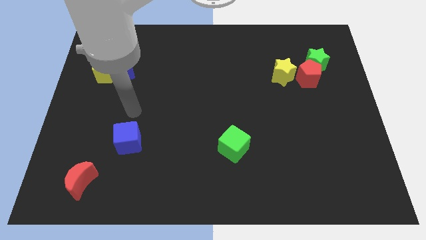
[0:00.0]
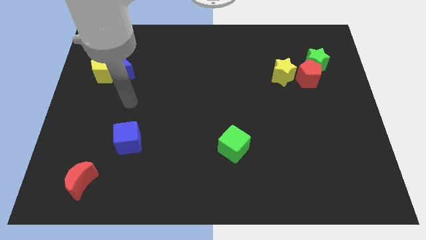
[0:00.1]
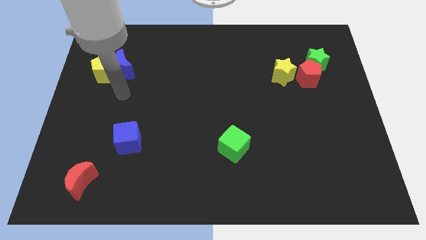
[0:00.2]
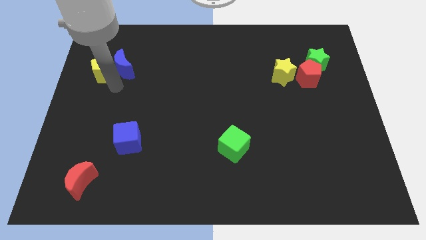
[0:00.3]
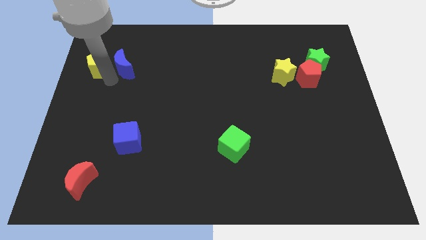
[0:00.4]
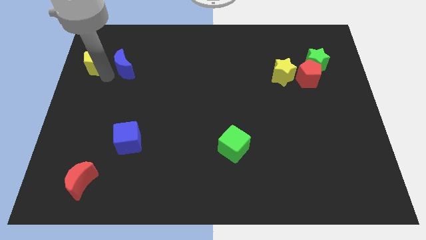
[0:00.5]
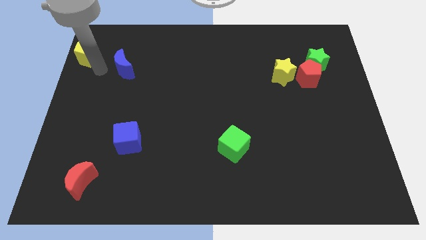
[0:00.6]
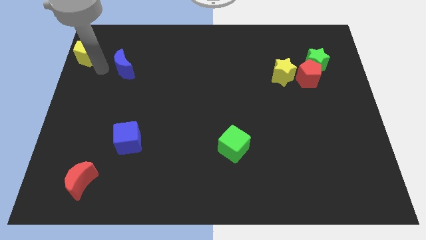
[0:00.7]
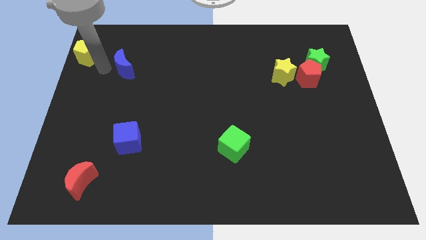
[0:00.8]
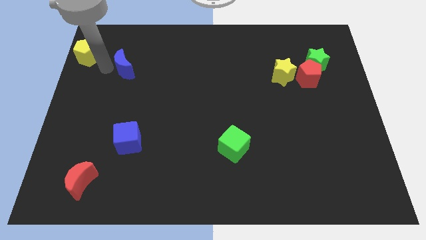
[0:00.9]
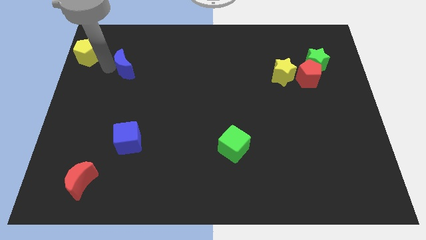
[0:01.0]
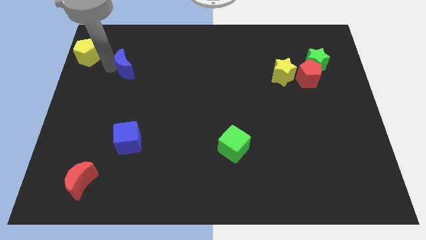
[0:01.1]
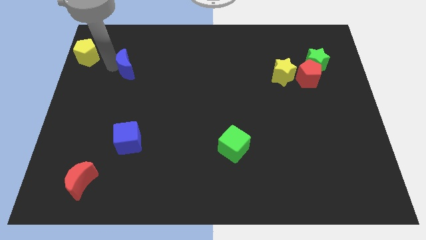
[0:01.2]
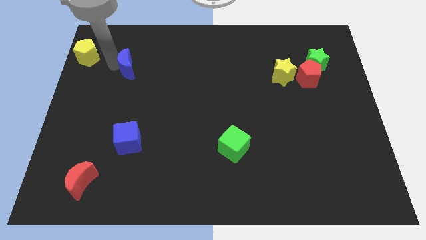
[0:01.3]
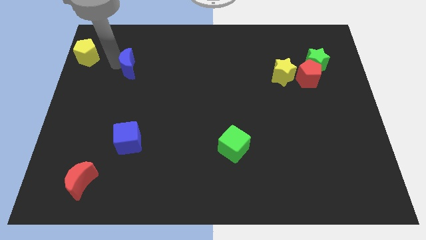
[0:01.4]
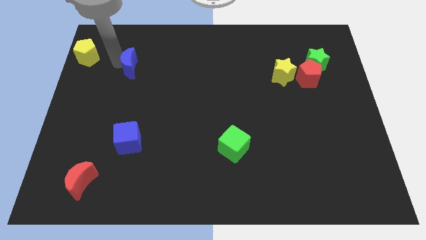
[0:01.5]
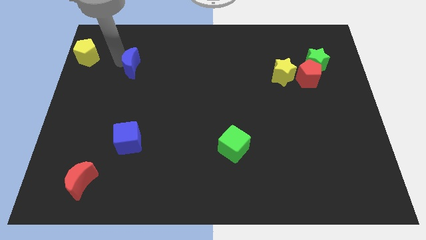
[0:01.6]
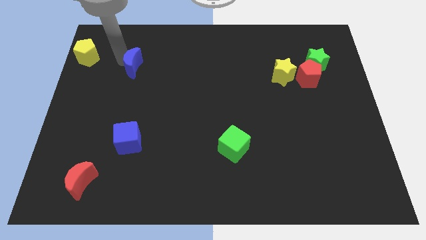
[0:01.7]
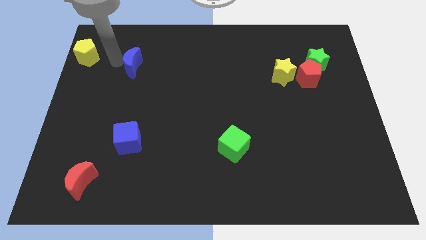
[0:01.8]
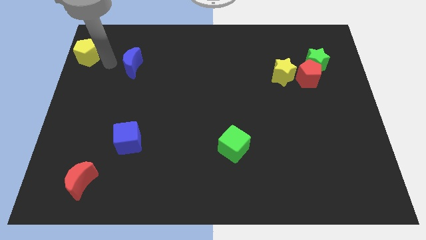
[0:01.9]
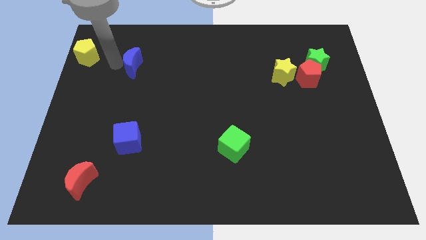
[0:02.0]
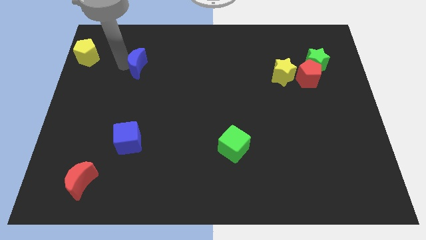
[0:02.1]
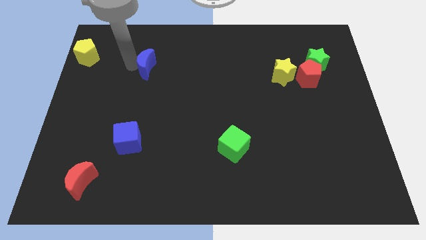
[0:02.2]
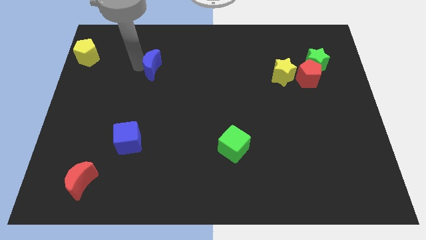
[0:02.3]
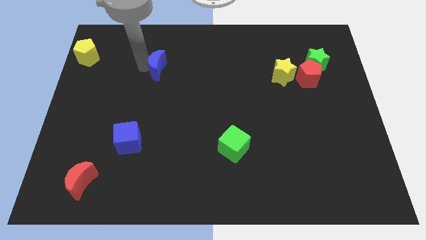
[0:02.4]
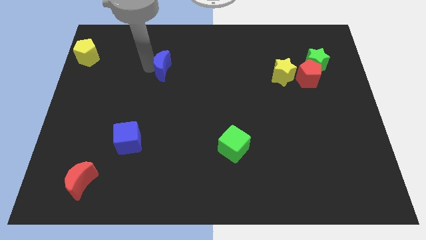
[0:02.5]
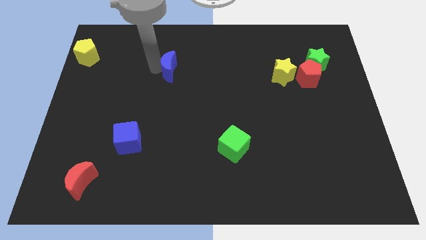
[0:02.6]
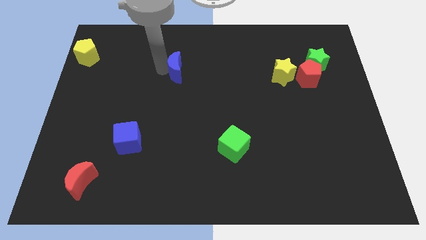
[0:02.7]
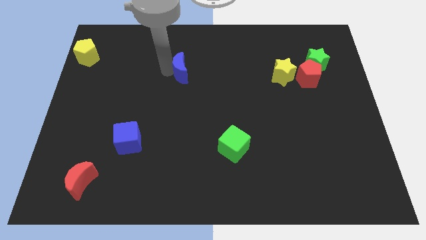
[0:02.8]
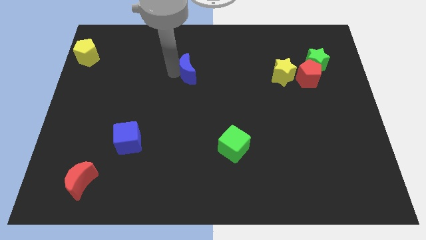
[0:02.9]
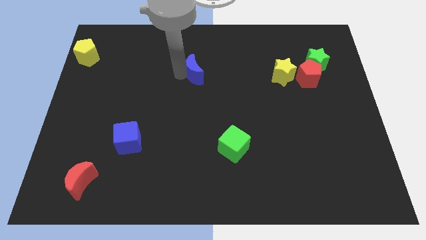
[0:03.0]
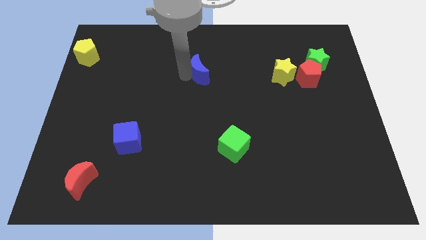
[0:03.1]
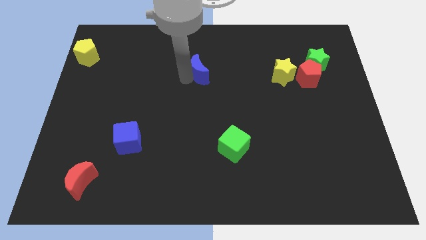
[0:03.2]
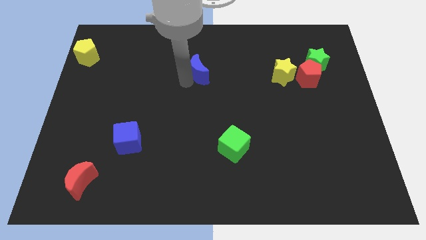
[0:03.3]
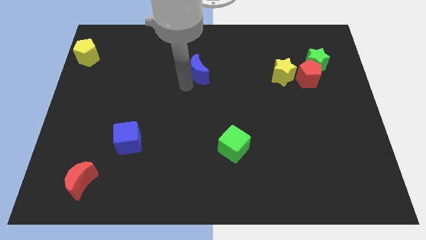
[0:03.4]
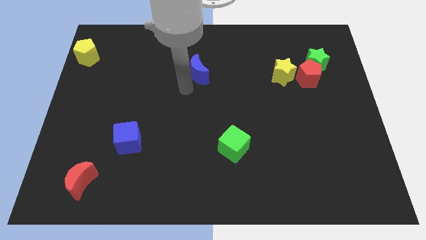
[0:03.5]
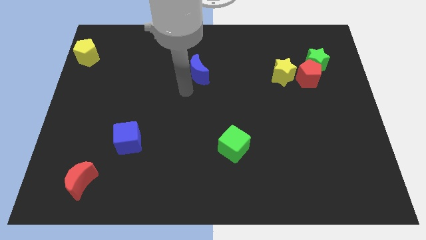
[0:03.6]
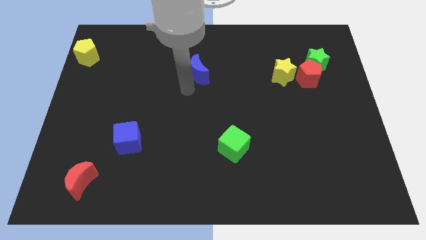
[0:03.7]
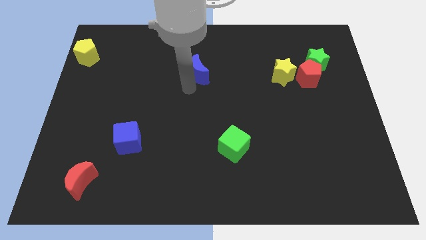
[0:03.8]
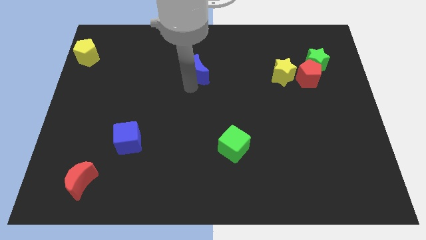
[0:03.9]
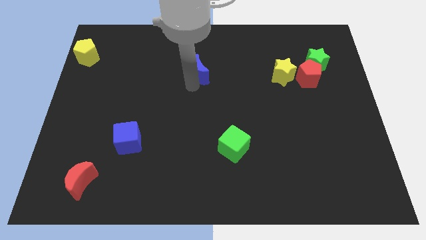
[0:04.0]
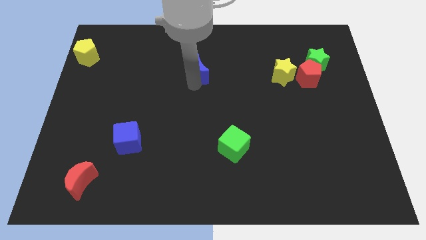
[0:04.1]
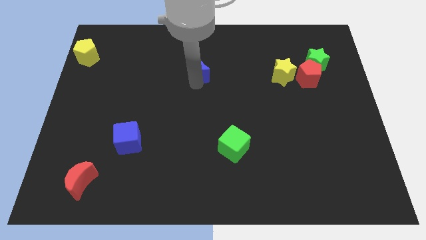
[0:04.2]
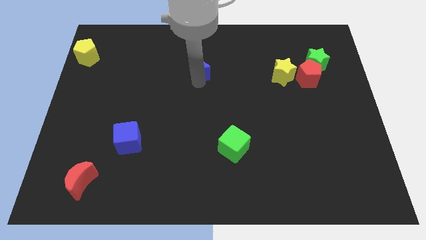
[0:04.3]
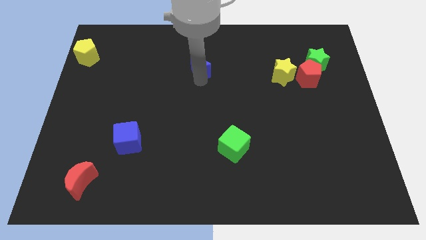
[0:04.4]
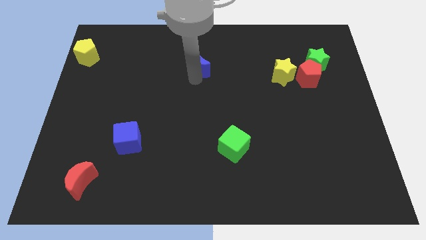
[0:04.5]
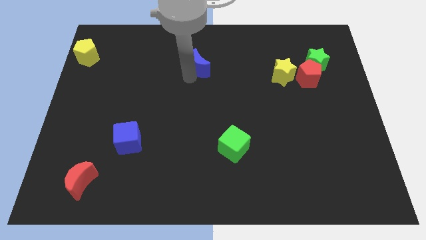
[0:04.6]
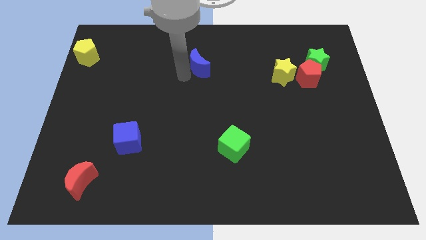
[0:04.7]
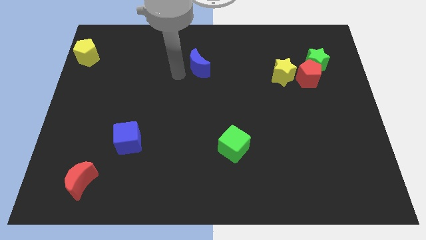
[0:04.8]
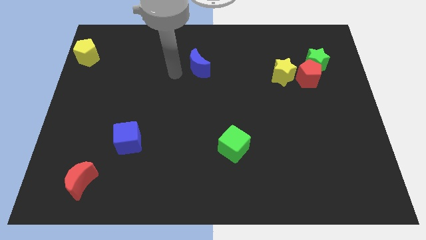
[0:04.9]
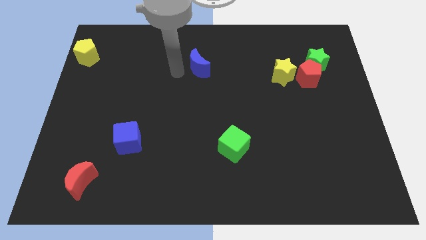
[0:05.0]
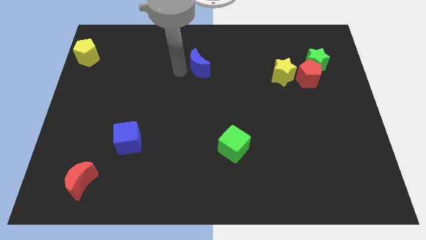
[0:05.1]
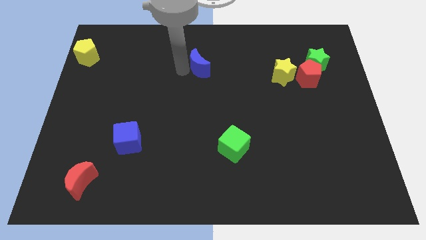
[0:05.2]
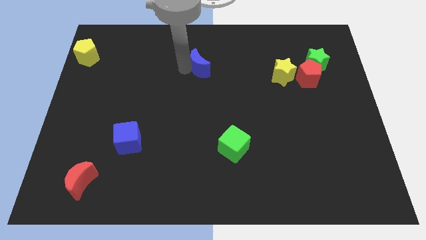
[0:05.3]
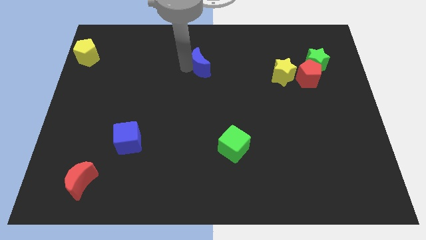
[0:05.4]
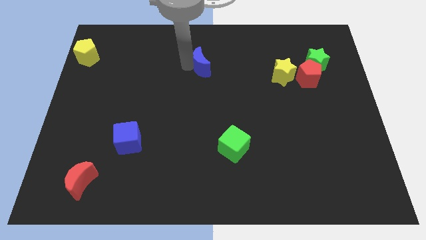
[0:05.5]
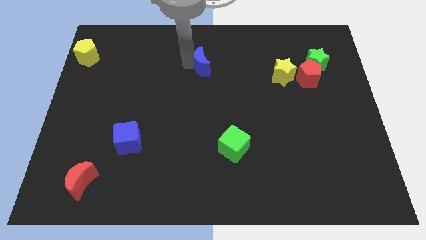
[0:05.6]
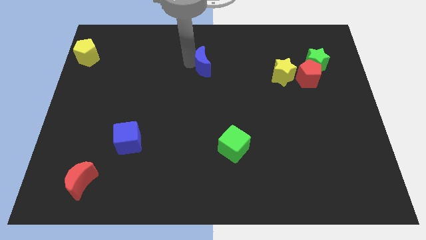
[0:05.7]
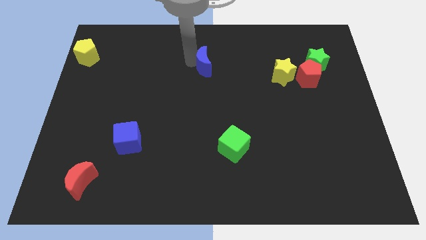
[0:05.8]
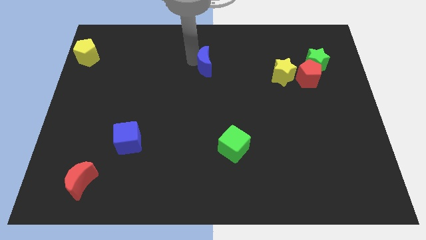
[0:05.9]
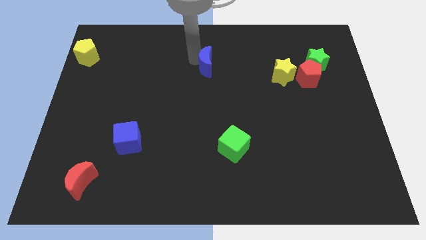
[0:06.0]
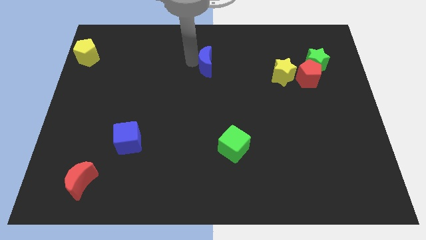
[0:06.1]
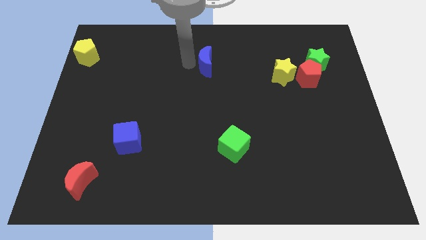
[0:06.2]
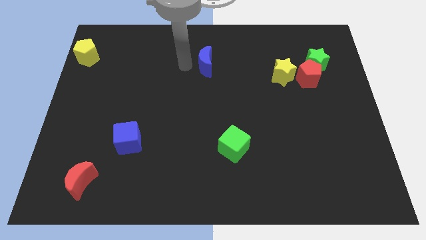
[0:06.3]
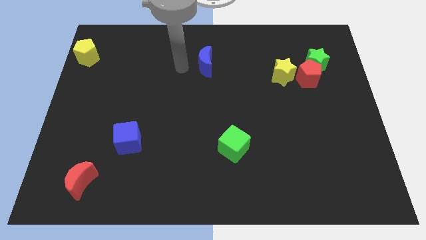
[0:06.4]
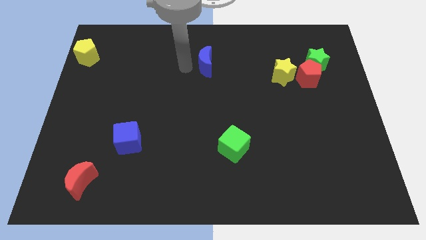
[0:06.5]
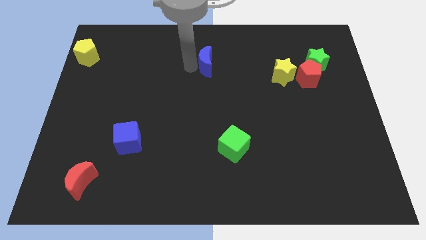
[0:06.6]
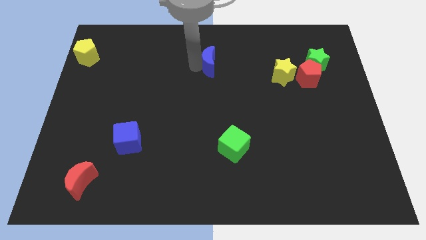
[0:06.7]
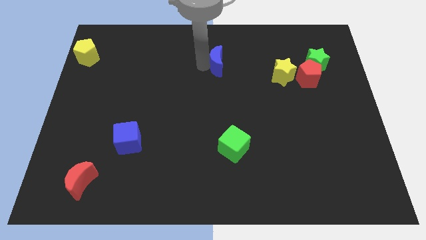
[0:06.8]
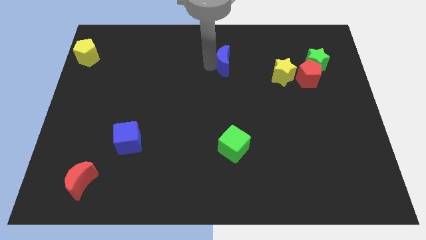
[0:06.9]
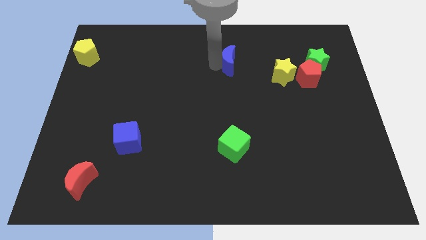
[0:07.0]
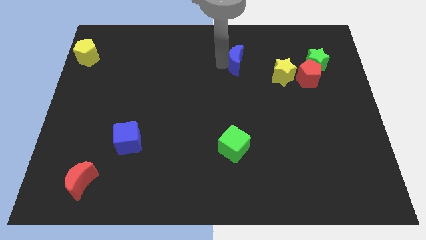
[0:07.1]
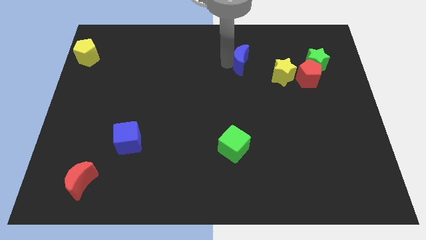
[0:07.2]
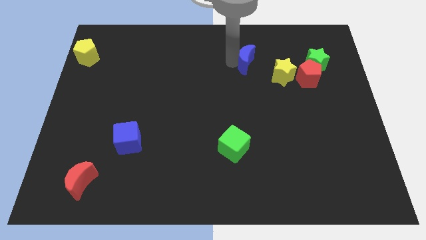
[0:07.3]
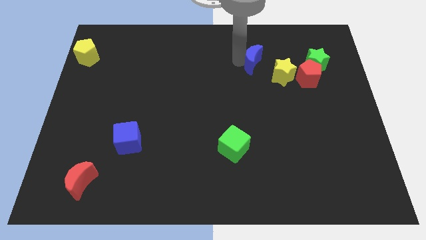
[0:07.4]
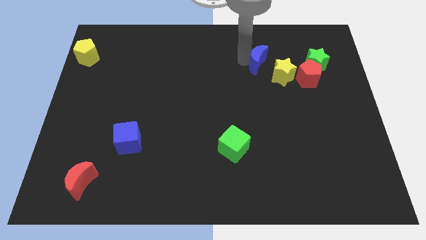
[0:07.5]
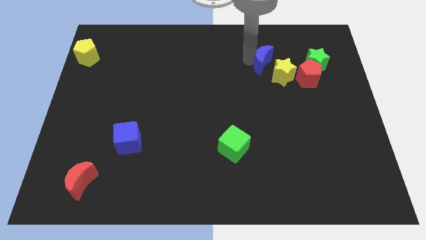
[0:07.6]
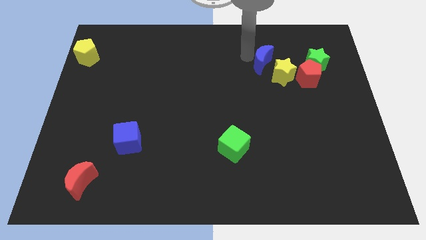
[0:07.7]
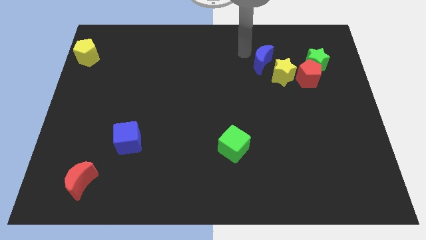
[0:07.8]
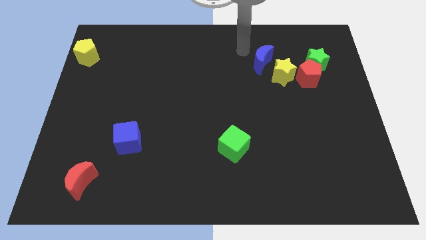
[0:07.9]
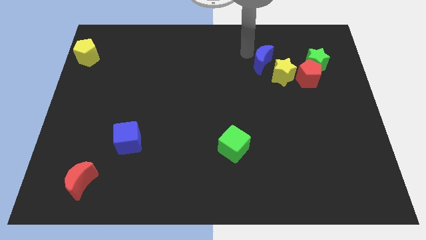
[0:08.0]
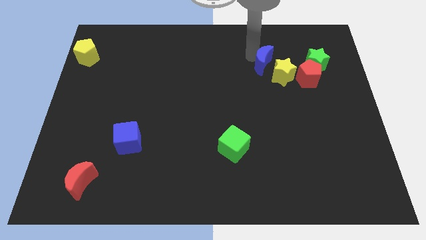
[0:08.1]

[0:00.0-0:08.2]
move the blue moon towards the yellow star
